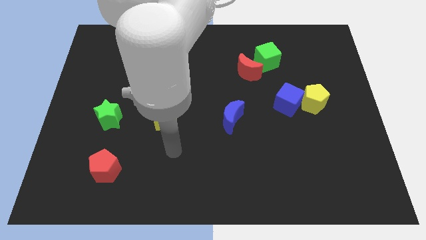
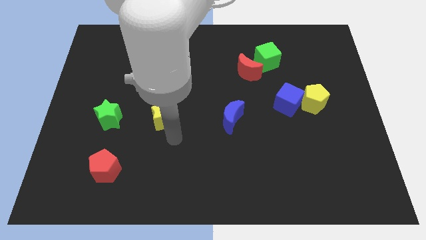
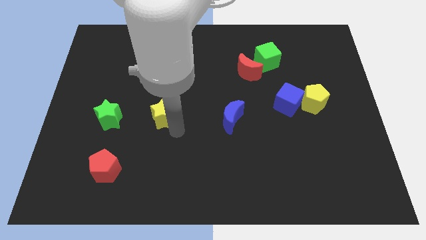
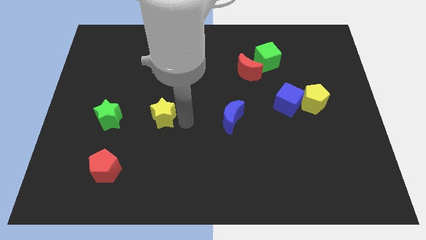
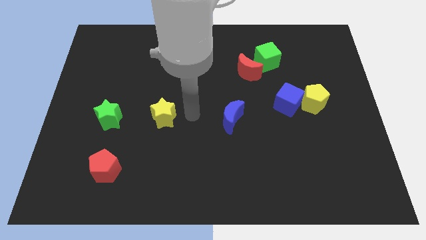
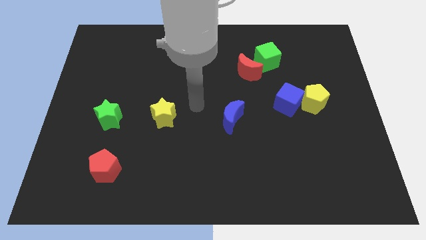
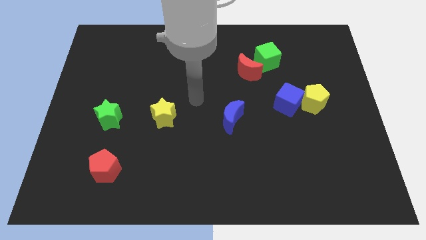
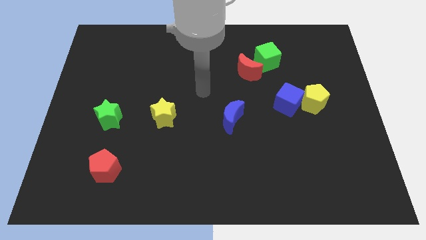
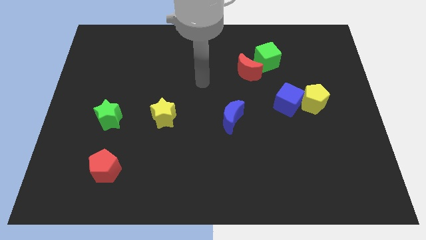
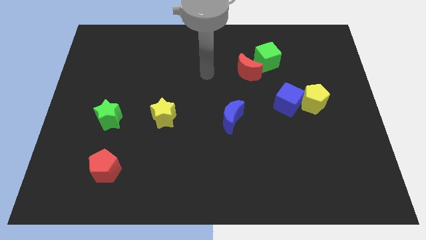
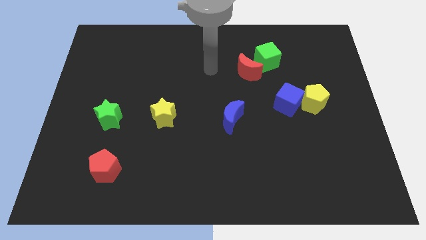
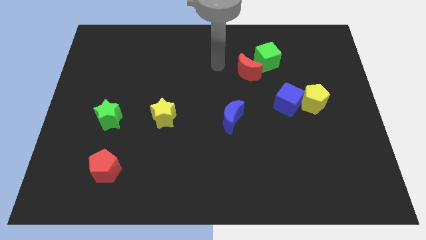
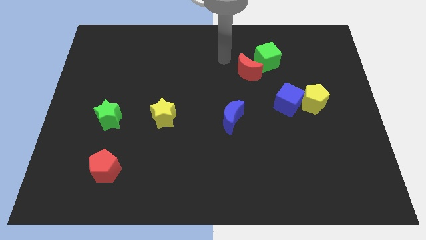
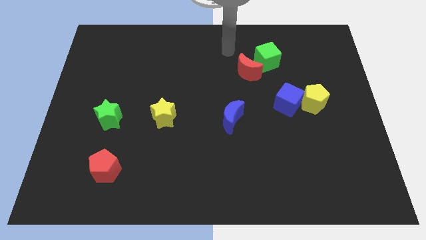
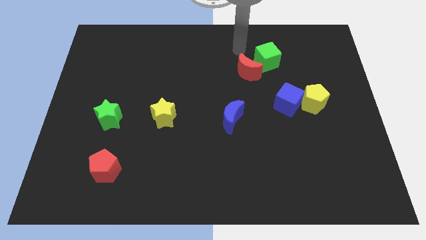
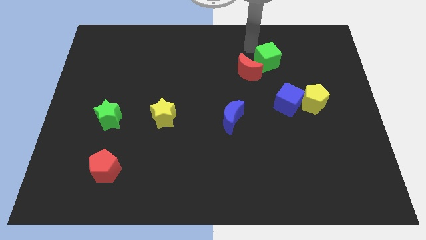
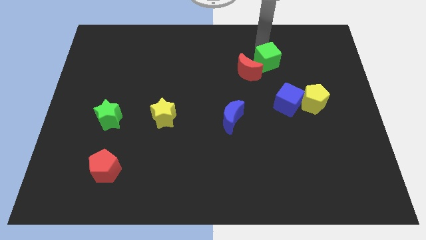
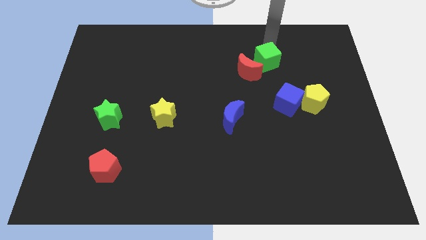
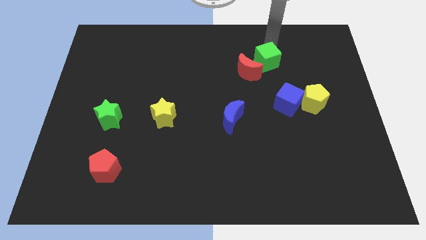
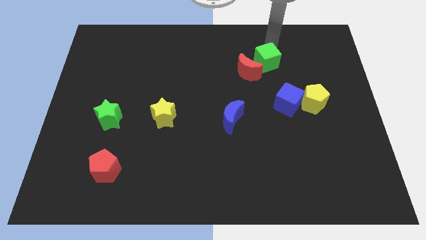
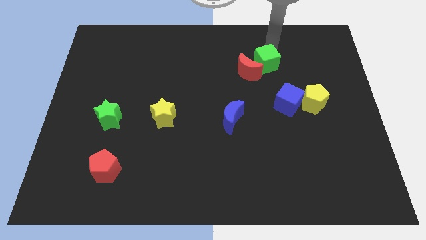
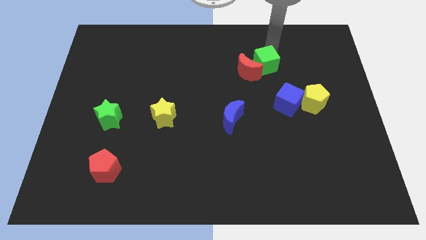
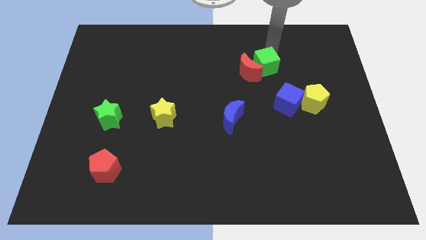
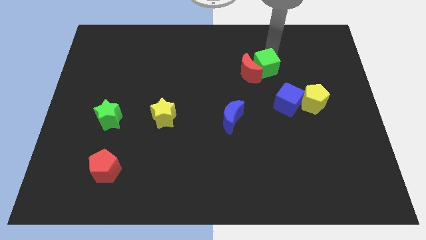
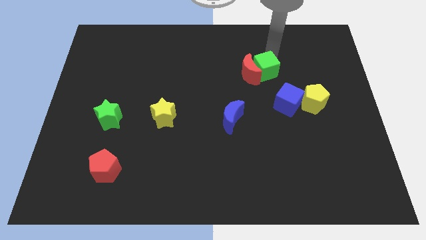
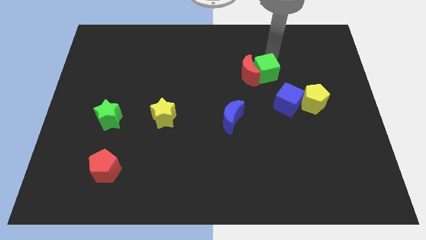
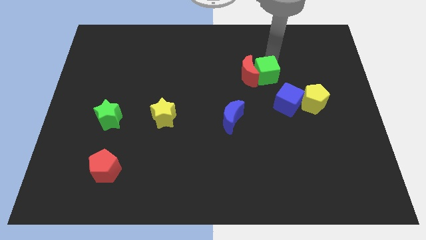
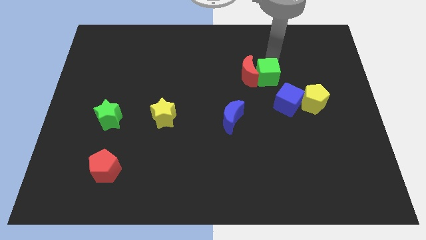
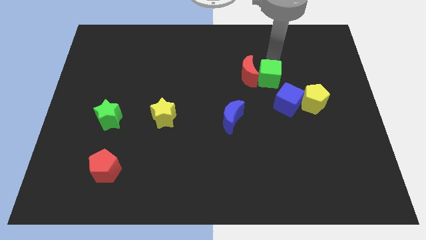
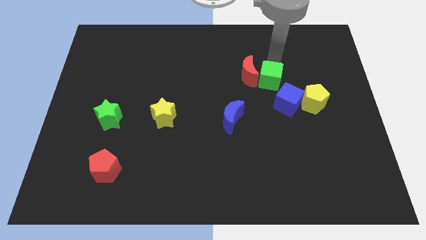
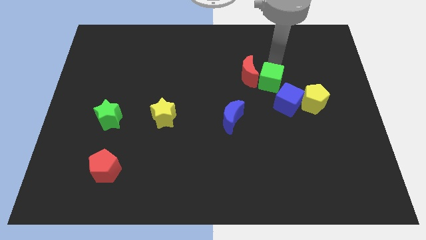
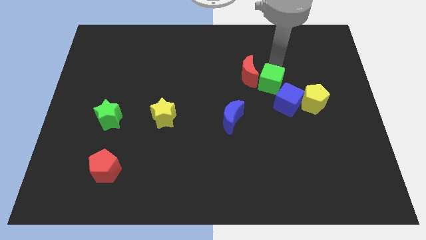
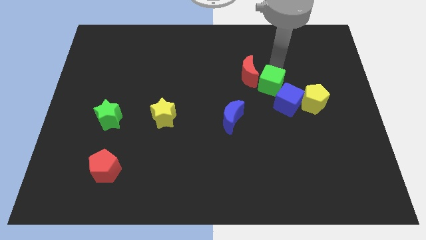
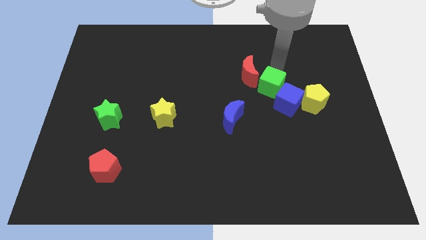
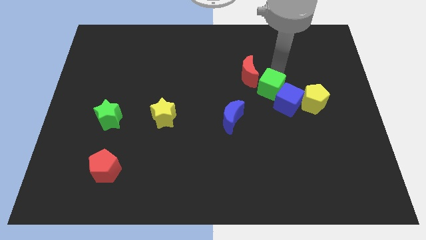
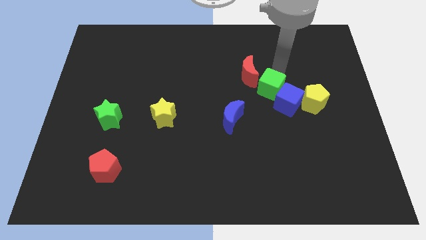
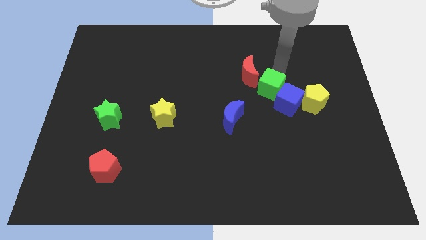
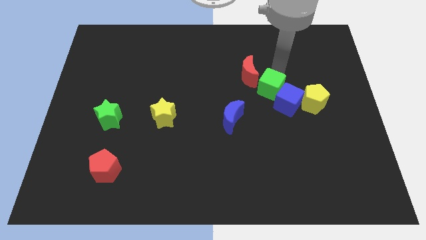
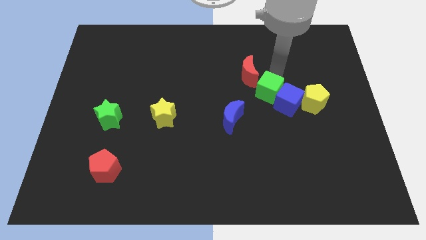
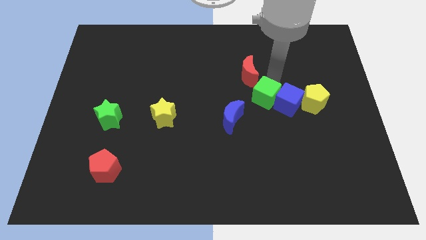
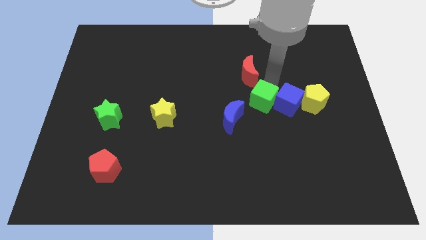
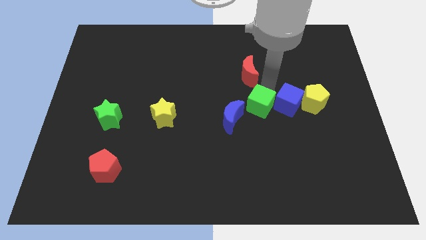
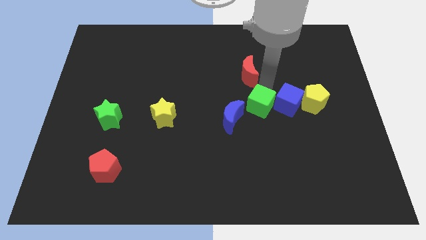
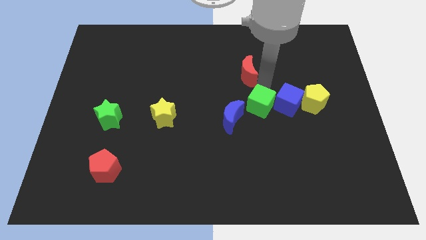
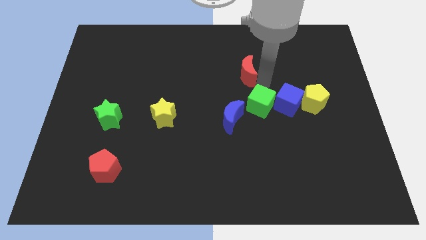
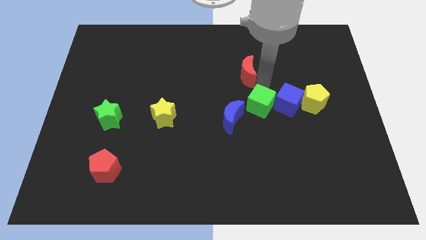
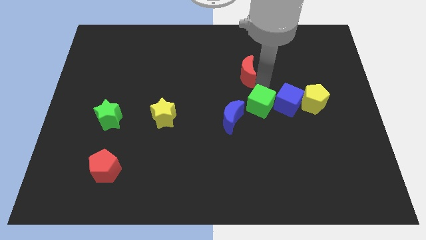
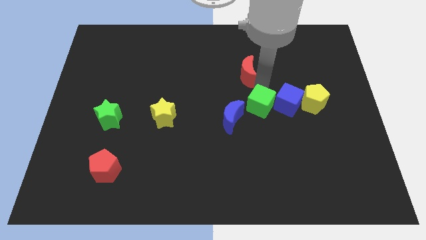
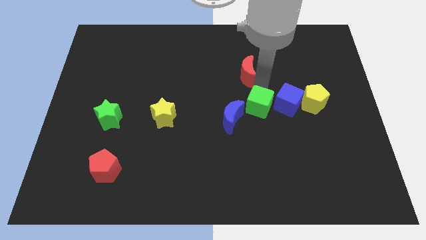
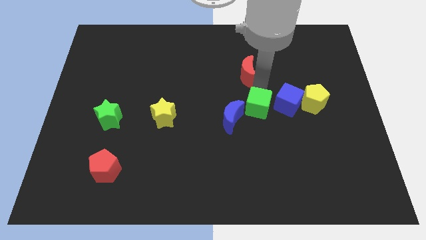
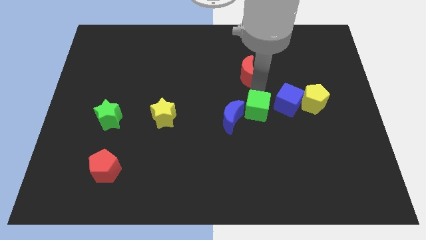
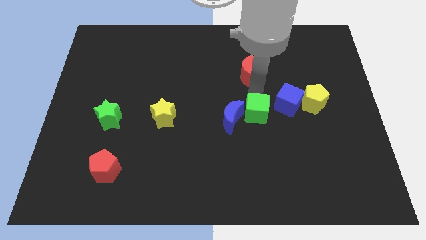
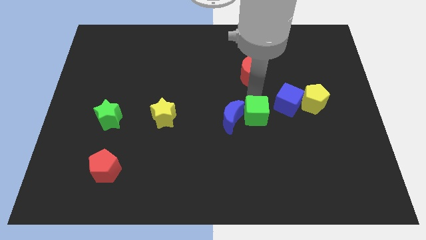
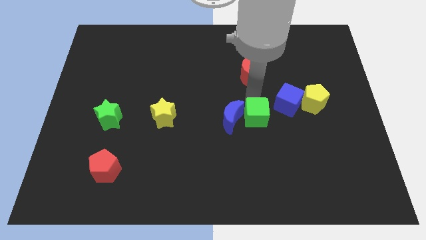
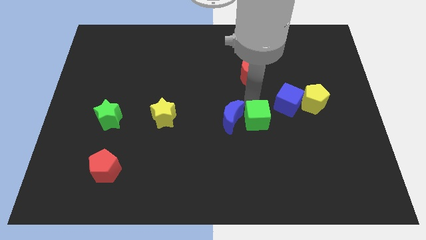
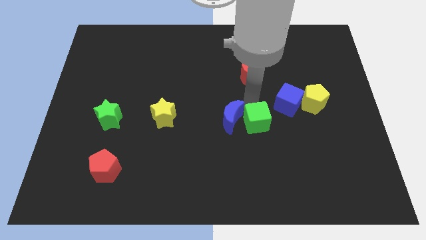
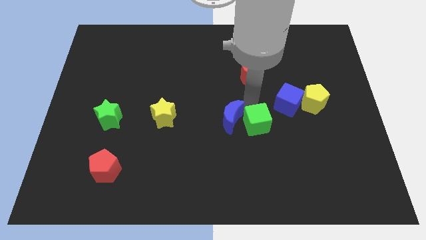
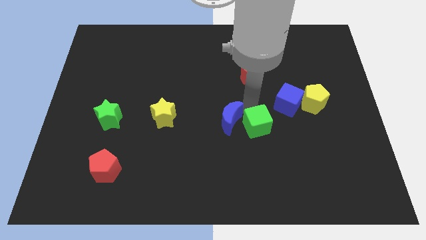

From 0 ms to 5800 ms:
push the green cube down

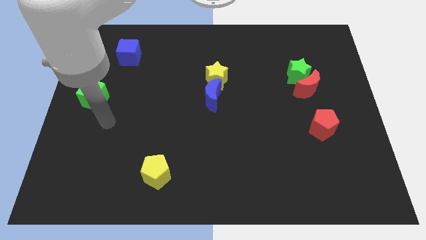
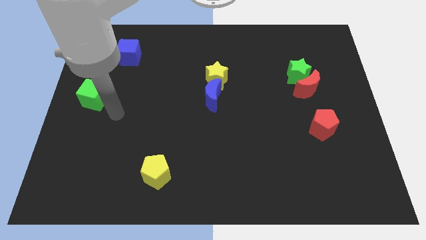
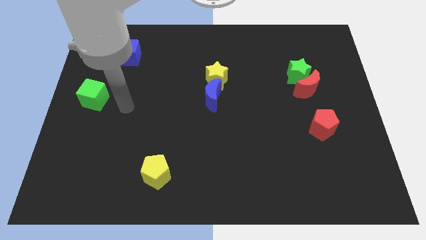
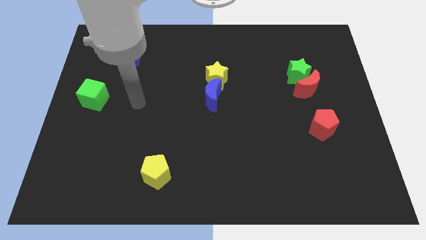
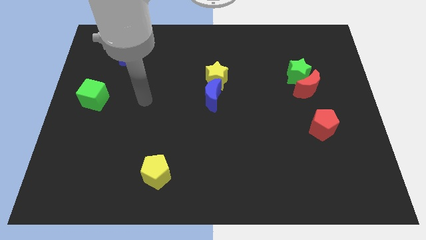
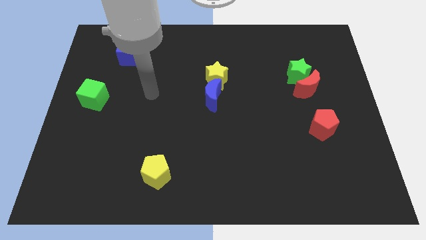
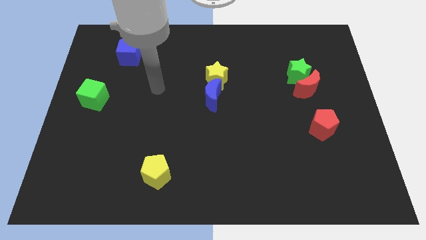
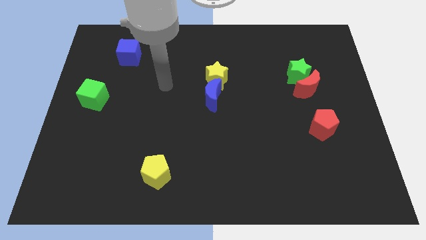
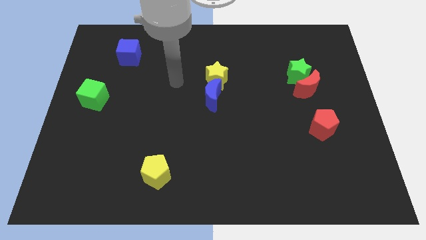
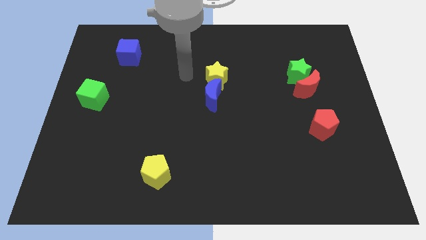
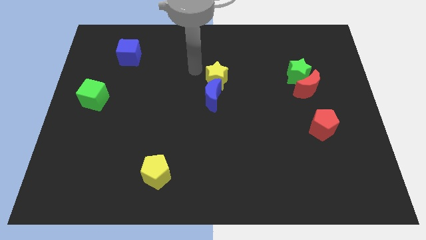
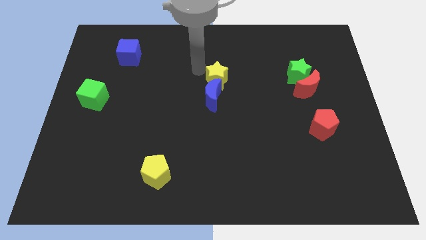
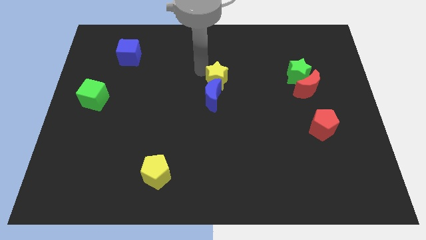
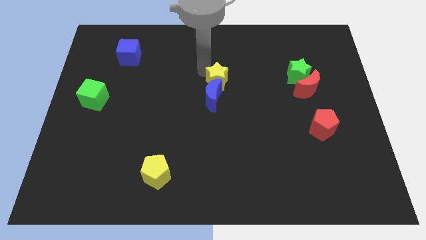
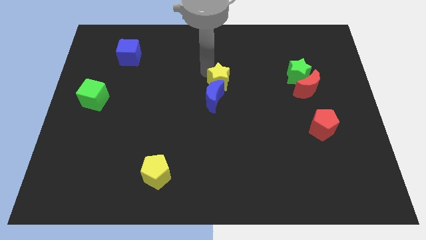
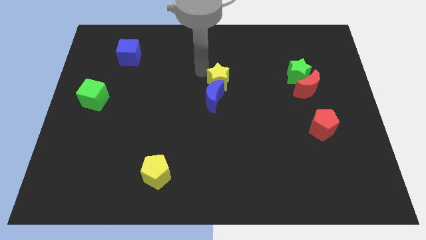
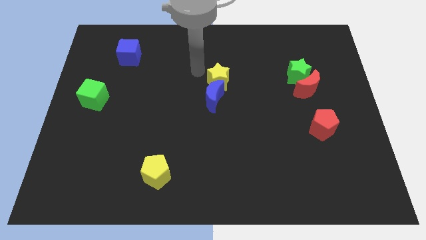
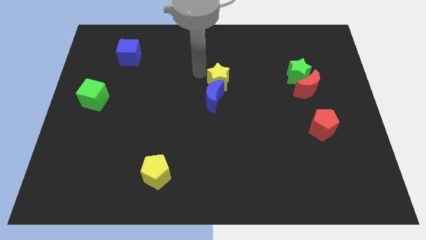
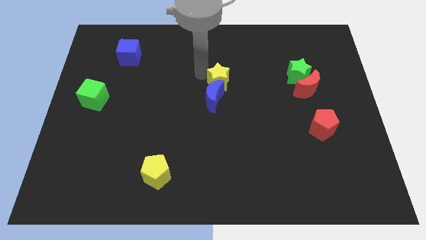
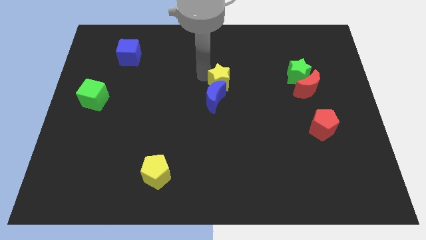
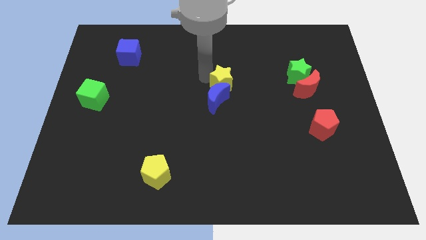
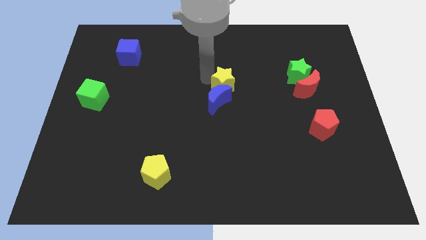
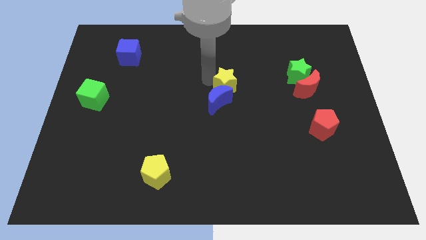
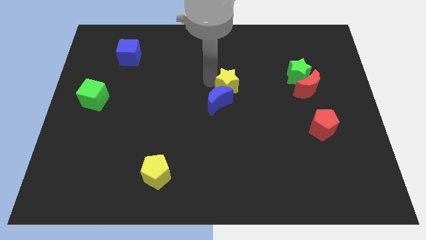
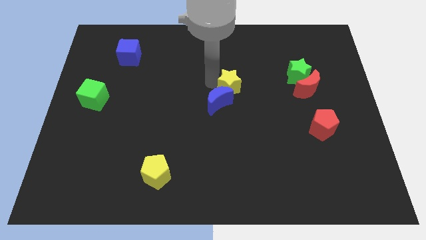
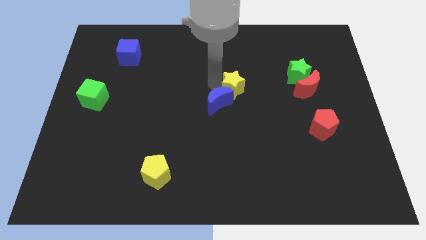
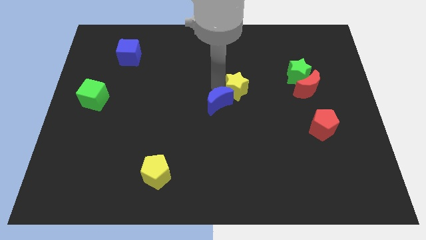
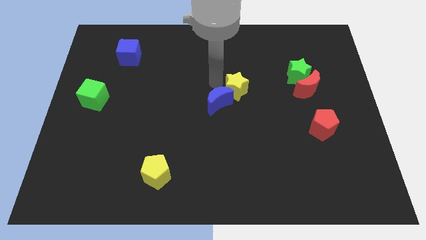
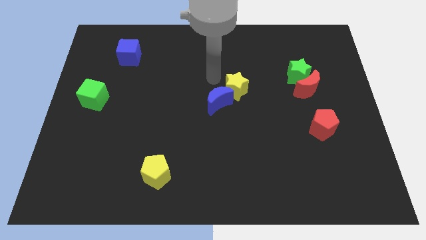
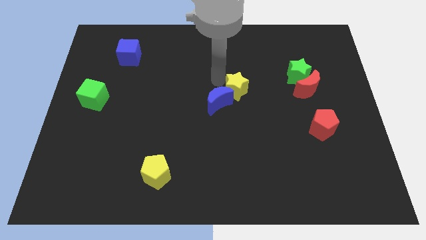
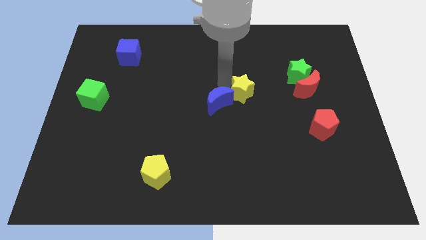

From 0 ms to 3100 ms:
slightly push the yellow star downwards and to the right
